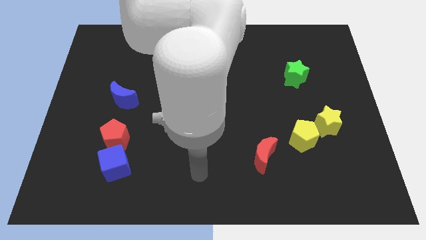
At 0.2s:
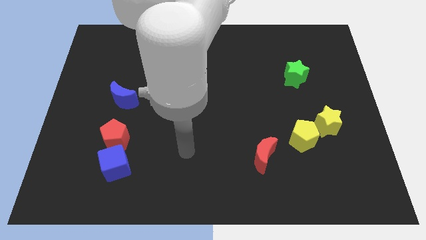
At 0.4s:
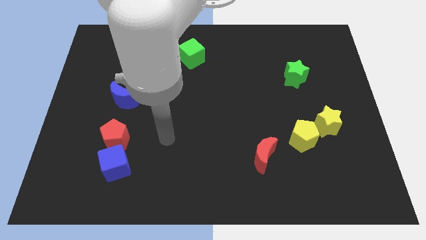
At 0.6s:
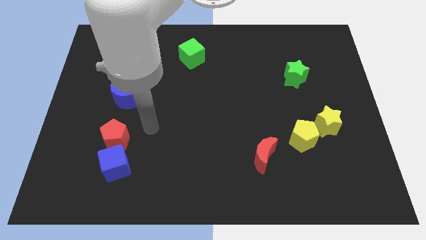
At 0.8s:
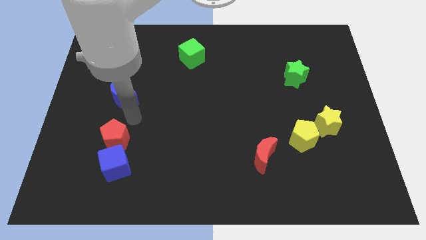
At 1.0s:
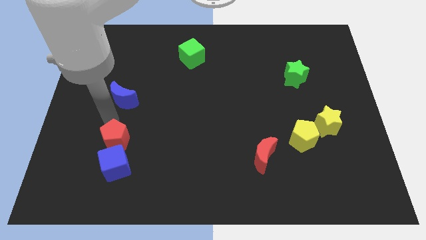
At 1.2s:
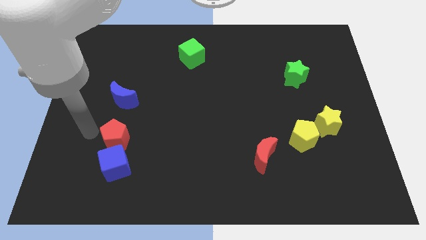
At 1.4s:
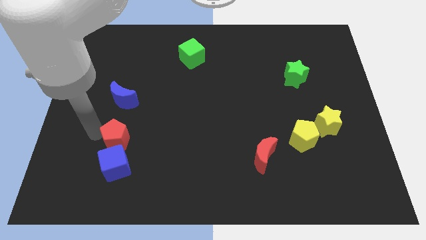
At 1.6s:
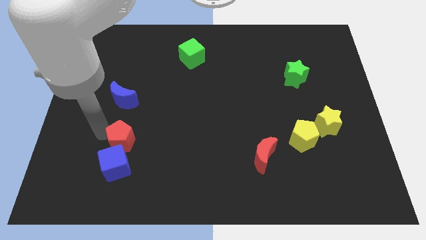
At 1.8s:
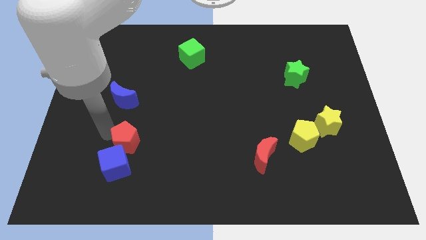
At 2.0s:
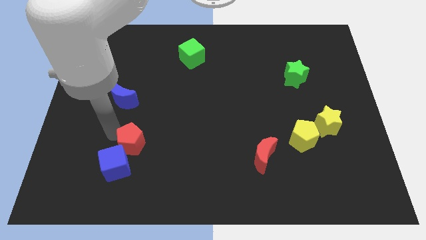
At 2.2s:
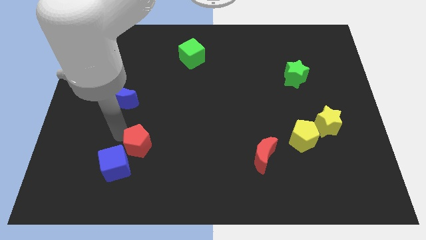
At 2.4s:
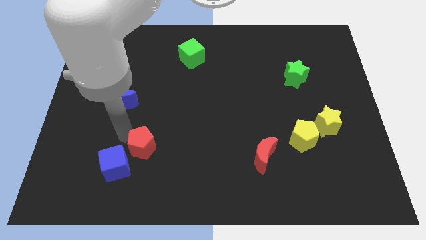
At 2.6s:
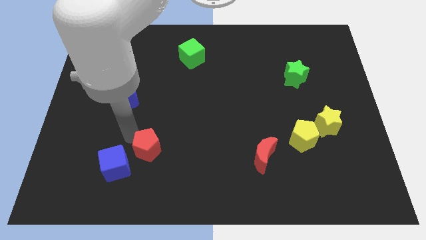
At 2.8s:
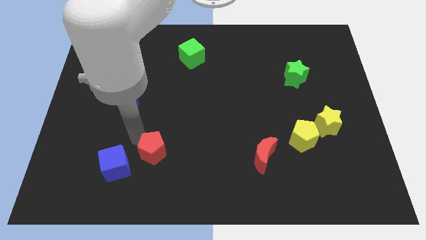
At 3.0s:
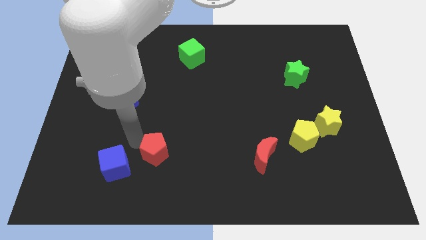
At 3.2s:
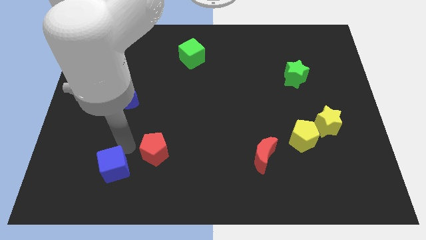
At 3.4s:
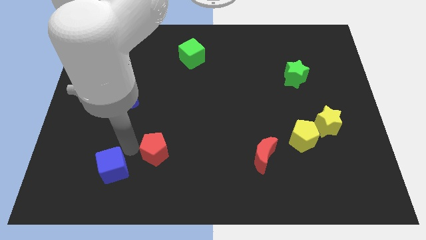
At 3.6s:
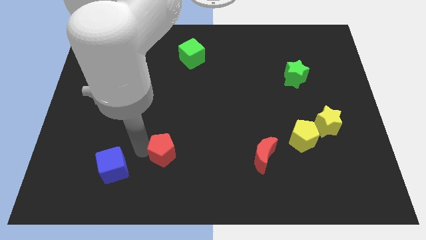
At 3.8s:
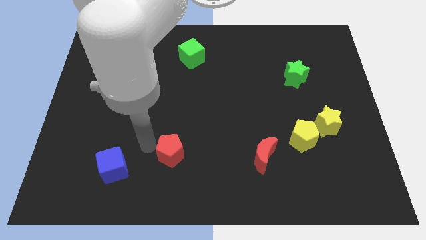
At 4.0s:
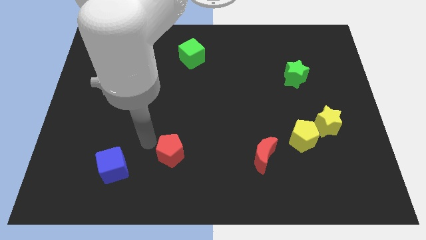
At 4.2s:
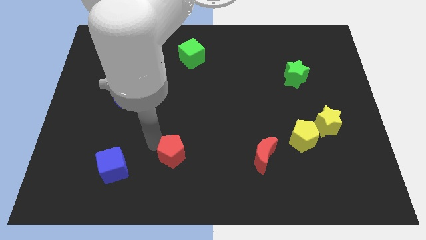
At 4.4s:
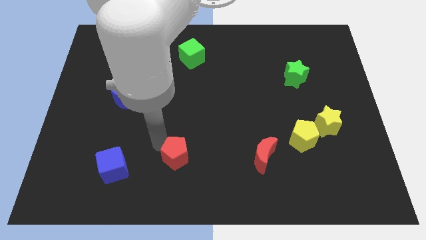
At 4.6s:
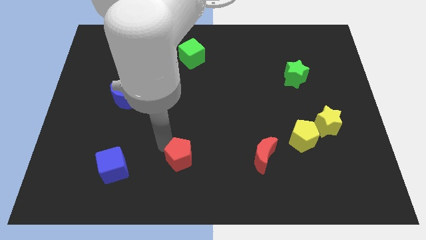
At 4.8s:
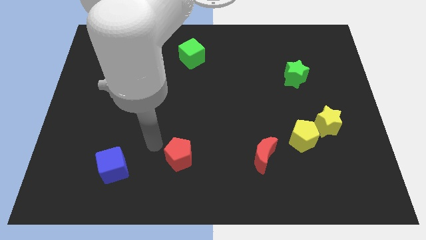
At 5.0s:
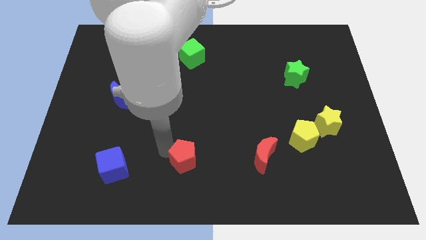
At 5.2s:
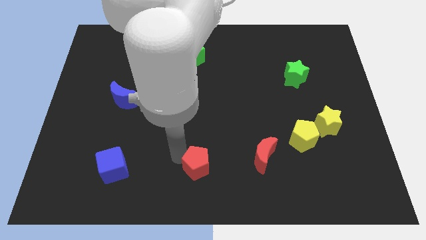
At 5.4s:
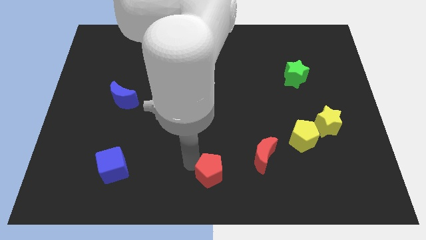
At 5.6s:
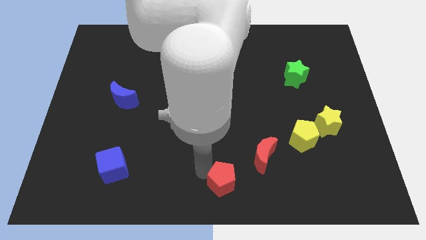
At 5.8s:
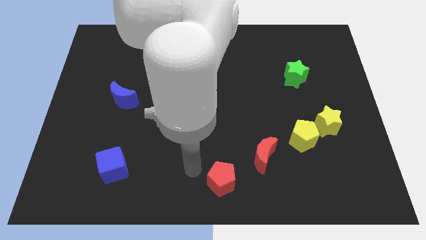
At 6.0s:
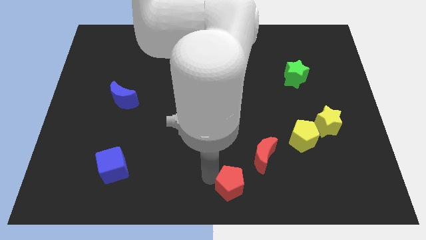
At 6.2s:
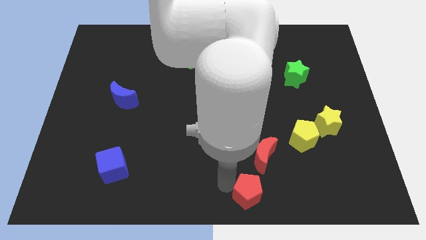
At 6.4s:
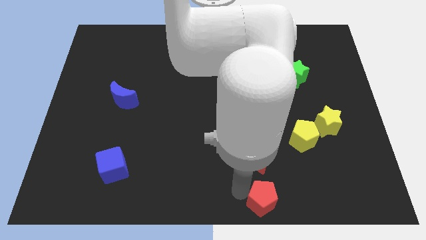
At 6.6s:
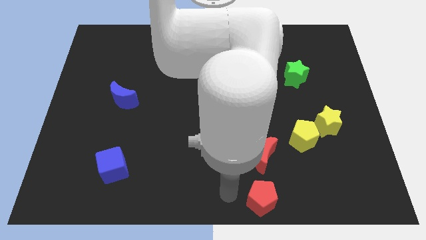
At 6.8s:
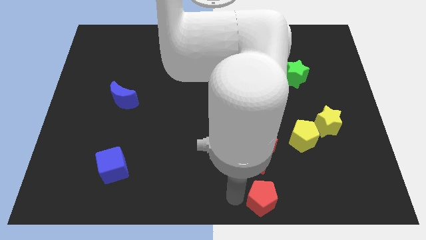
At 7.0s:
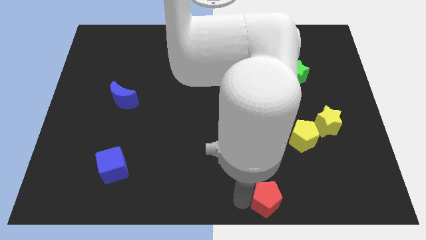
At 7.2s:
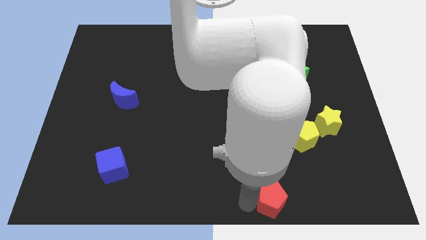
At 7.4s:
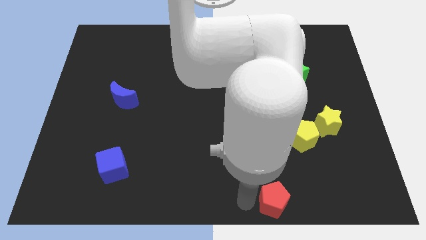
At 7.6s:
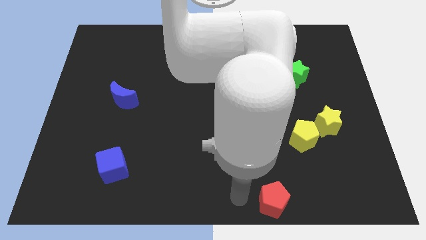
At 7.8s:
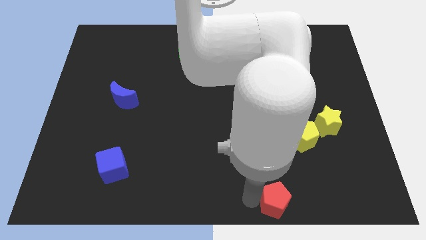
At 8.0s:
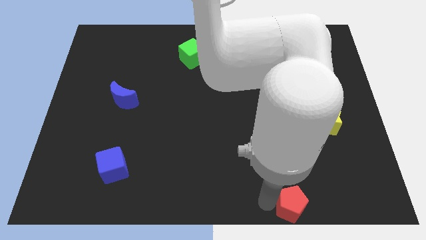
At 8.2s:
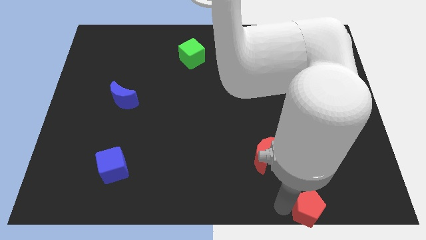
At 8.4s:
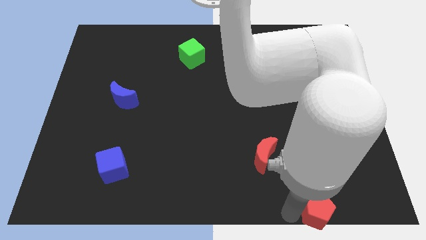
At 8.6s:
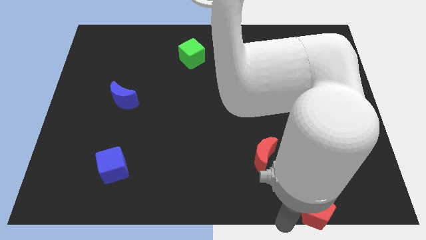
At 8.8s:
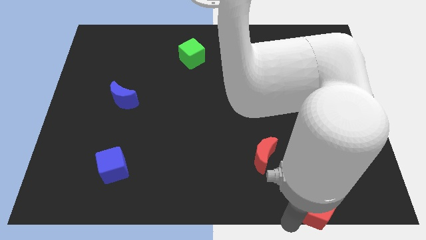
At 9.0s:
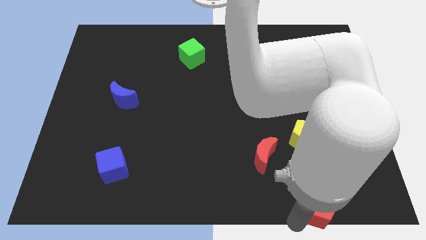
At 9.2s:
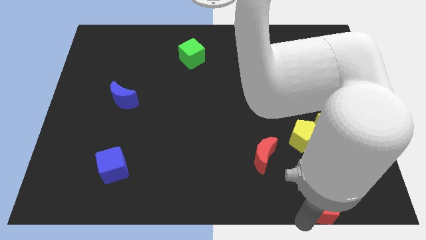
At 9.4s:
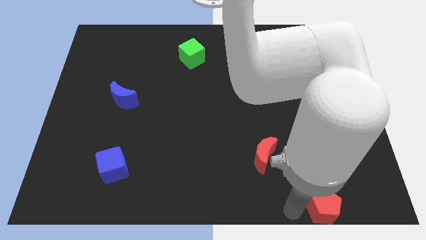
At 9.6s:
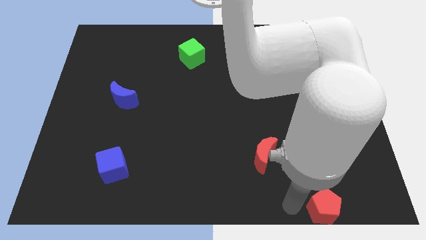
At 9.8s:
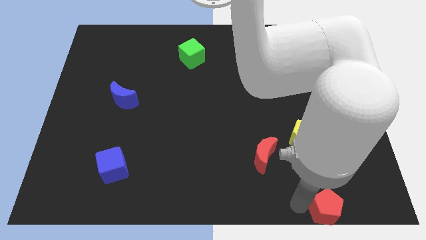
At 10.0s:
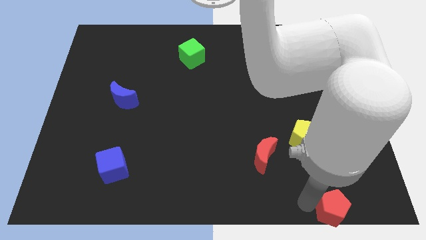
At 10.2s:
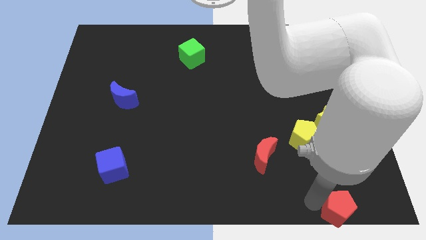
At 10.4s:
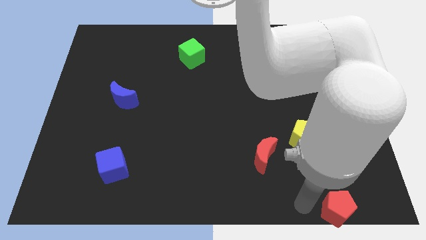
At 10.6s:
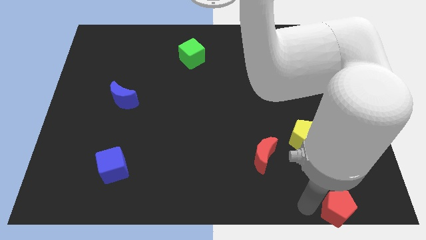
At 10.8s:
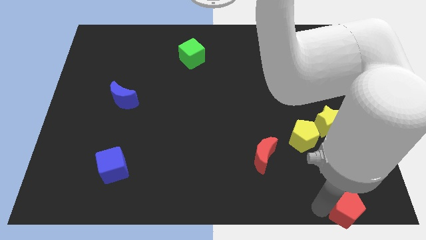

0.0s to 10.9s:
push the red pentagon to the lower right corner

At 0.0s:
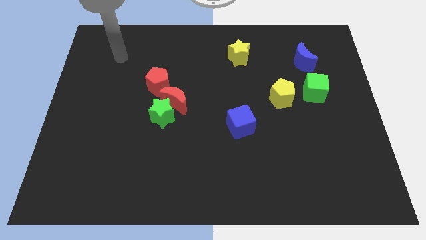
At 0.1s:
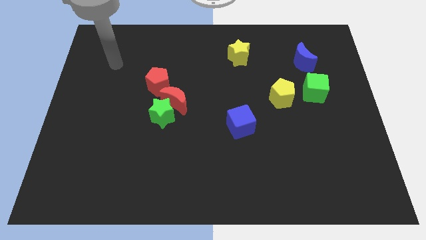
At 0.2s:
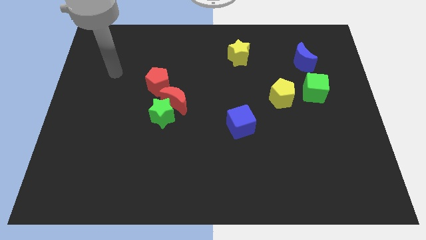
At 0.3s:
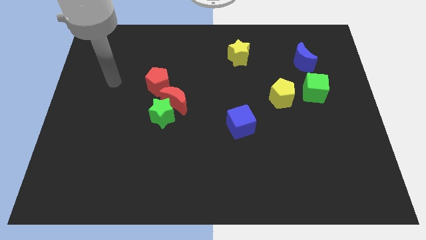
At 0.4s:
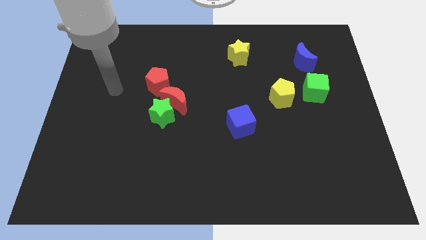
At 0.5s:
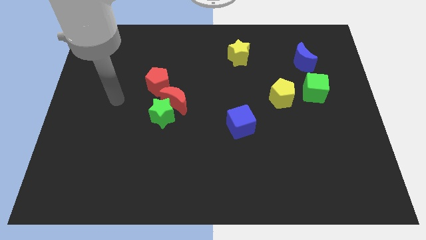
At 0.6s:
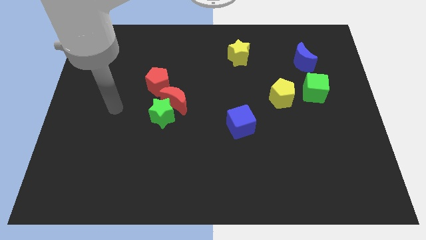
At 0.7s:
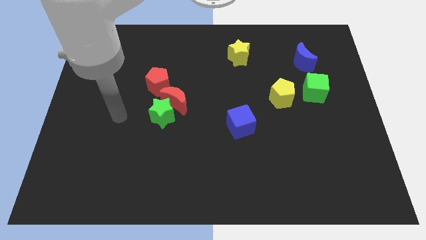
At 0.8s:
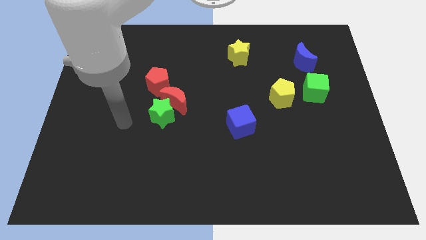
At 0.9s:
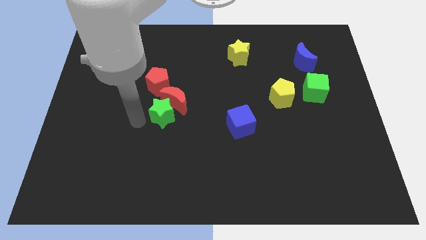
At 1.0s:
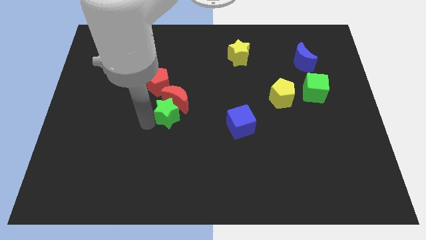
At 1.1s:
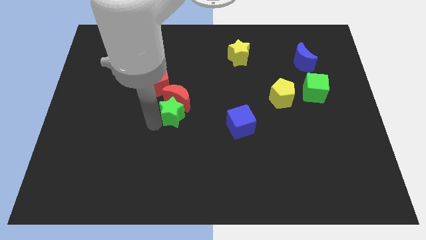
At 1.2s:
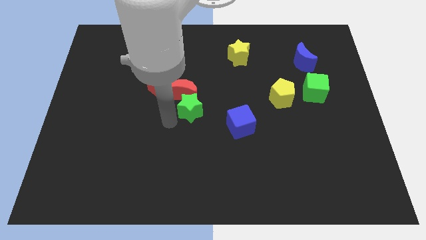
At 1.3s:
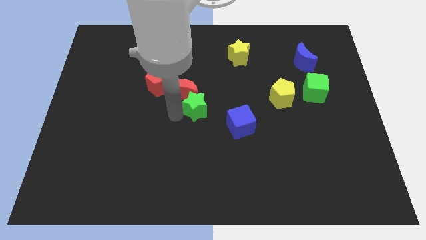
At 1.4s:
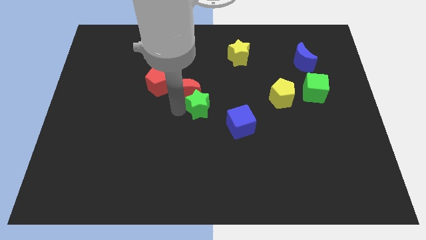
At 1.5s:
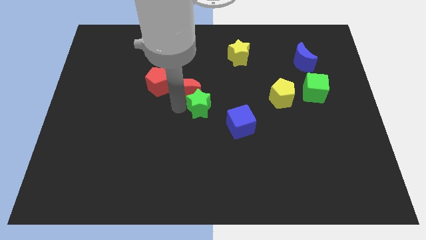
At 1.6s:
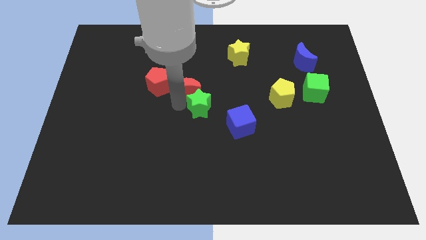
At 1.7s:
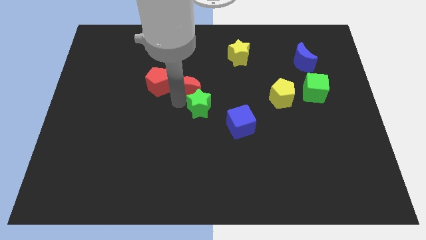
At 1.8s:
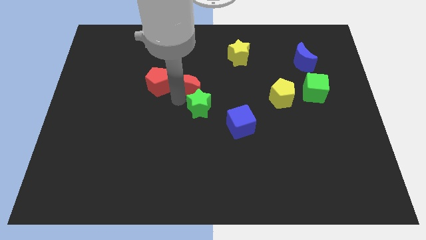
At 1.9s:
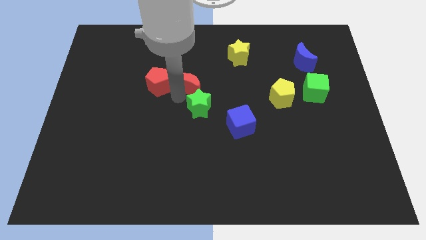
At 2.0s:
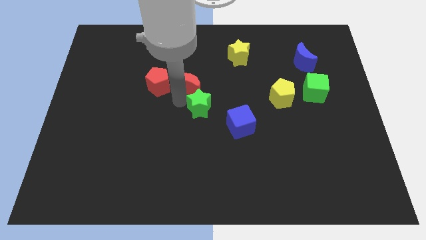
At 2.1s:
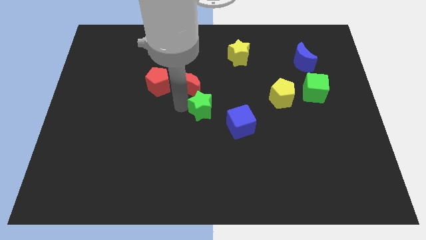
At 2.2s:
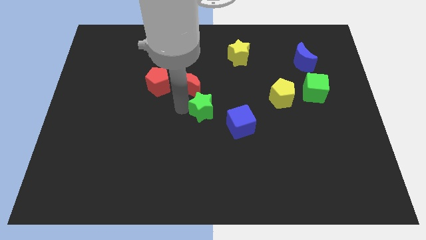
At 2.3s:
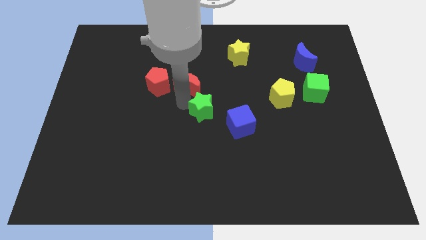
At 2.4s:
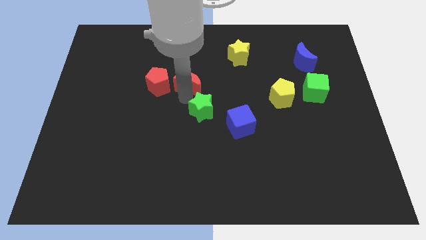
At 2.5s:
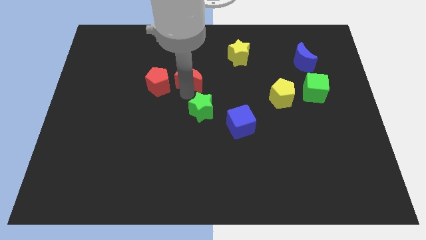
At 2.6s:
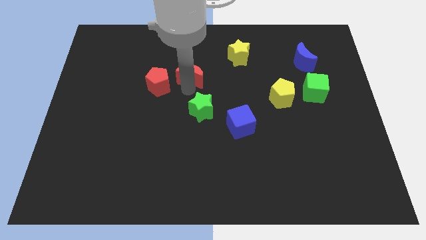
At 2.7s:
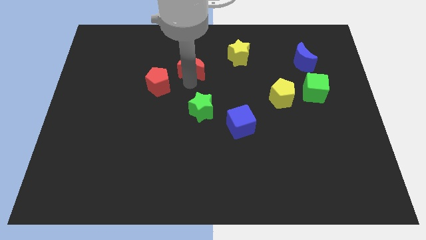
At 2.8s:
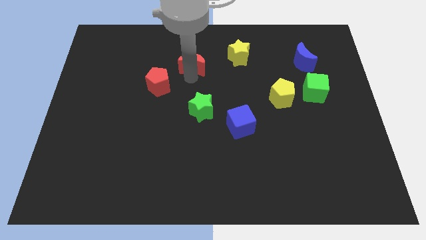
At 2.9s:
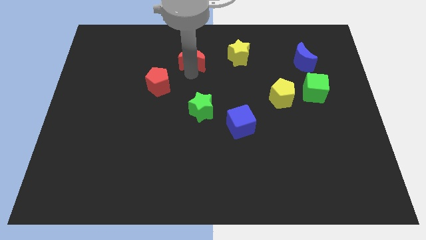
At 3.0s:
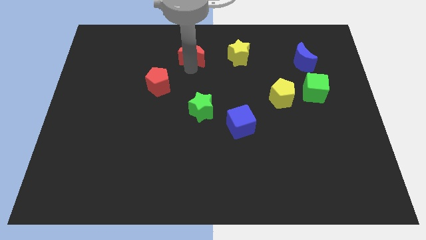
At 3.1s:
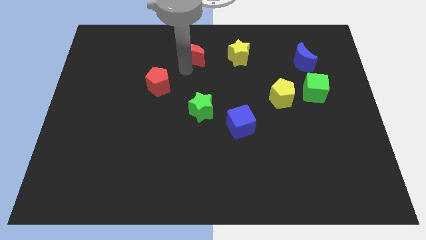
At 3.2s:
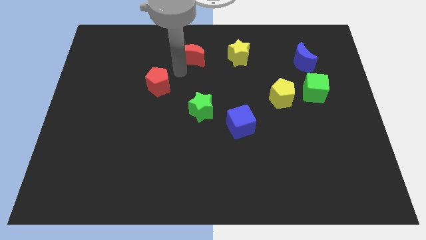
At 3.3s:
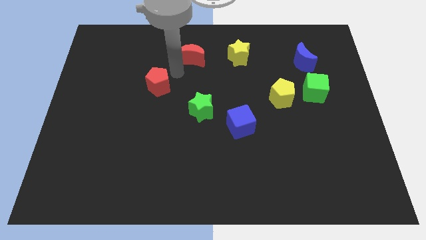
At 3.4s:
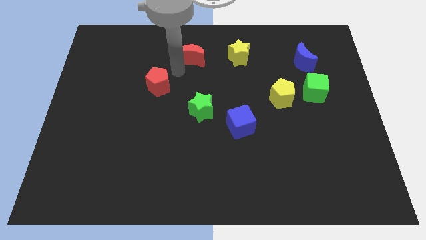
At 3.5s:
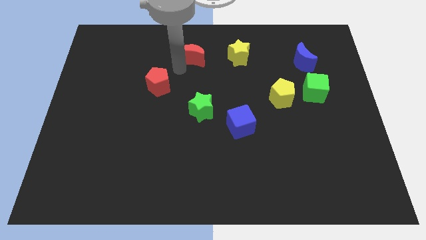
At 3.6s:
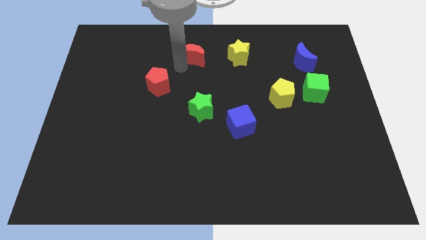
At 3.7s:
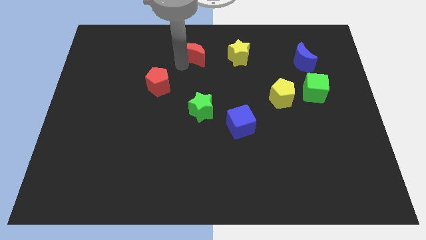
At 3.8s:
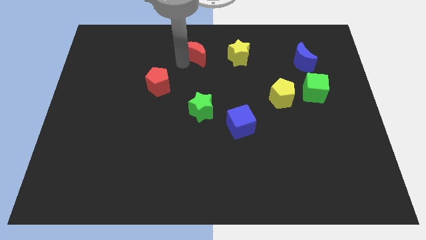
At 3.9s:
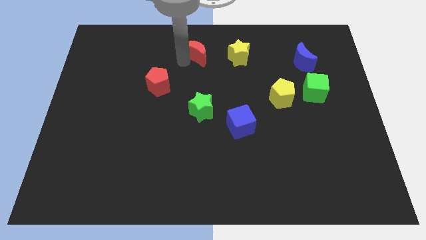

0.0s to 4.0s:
push the red moon to the towards your base
